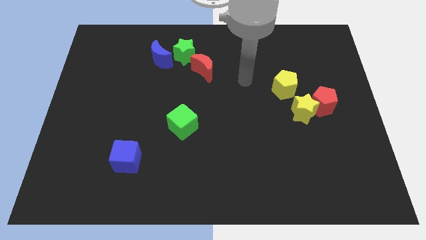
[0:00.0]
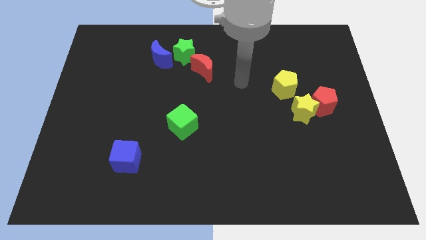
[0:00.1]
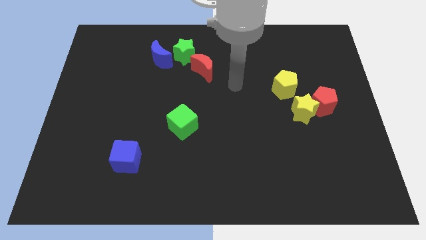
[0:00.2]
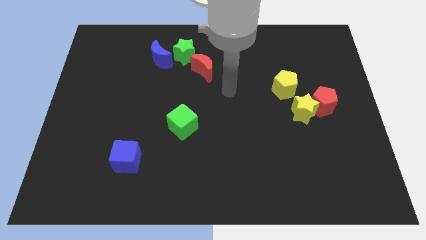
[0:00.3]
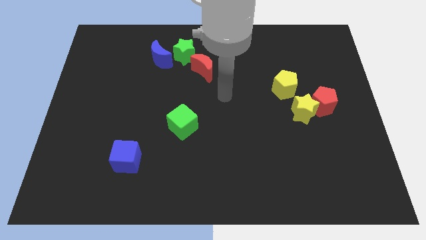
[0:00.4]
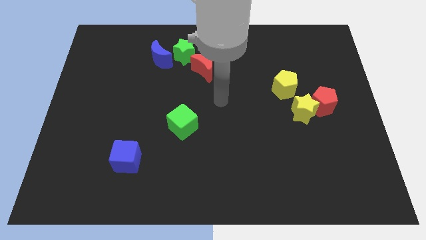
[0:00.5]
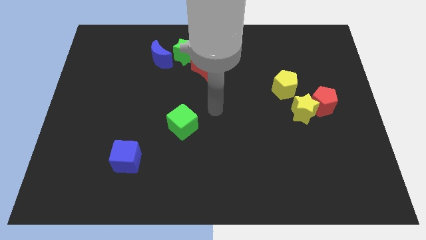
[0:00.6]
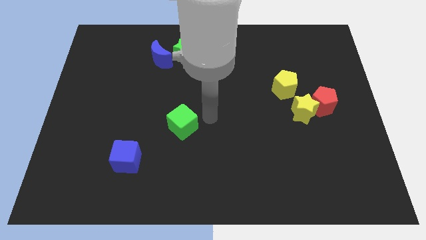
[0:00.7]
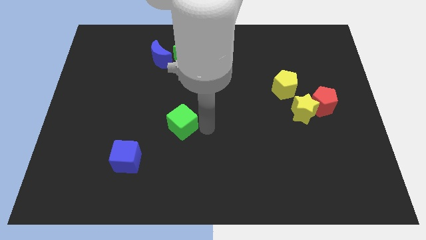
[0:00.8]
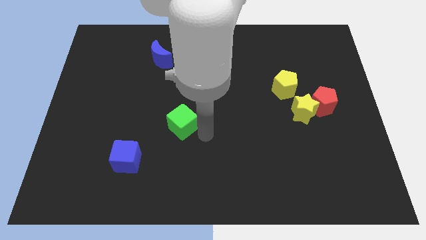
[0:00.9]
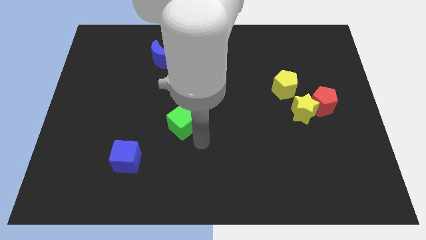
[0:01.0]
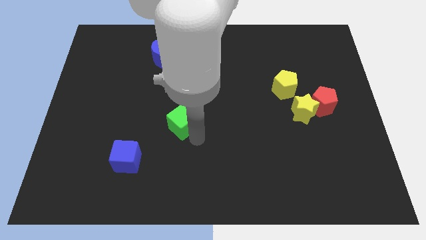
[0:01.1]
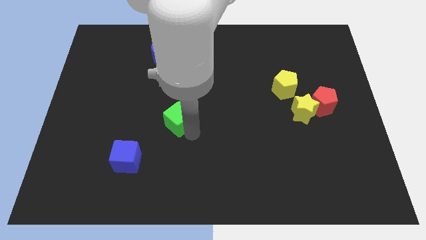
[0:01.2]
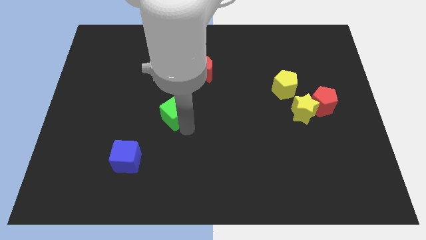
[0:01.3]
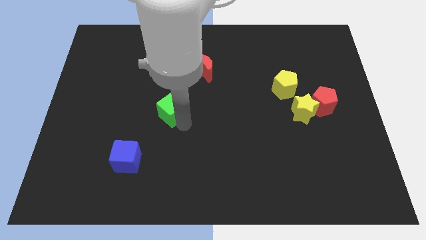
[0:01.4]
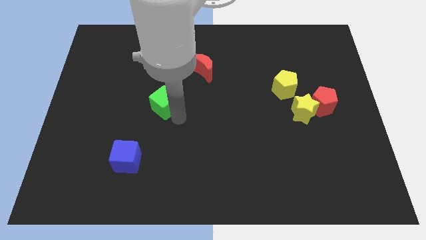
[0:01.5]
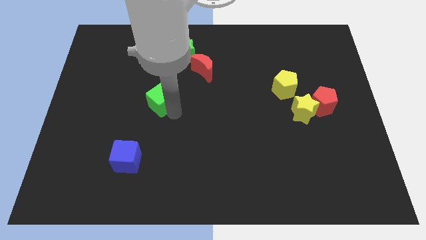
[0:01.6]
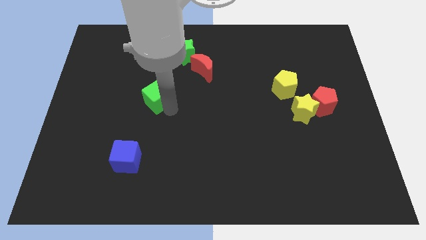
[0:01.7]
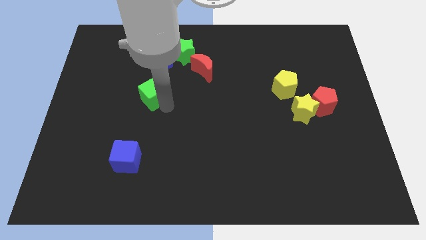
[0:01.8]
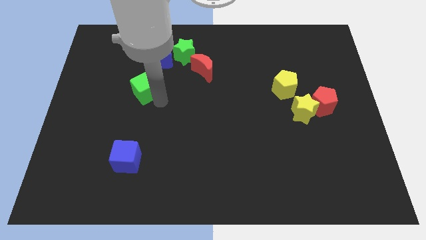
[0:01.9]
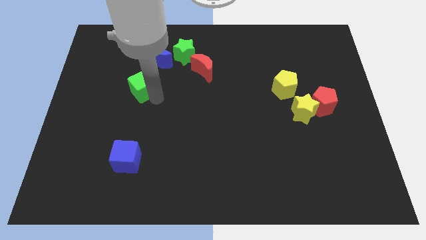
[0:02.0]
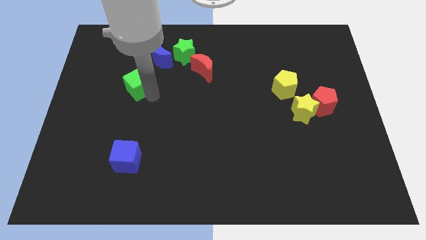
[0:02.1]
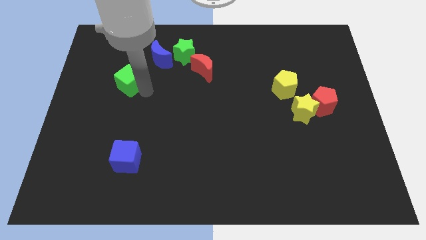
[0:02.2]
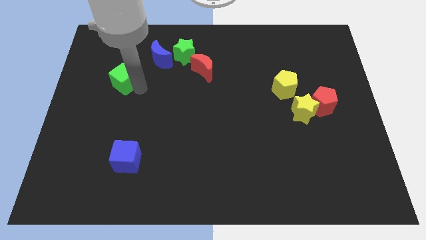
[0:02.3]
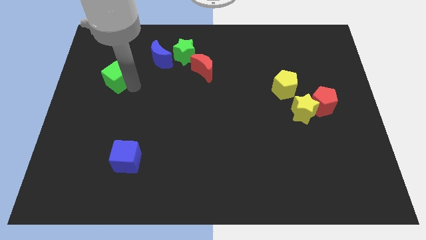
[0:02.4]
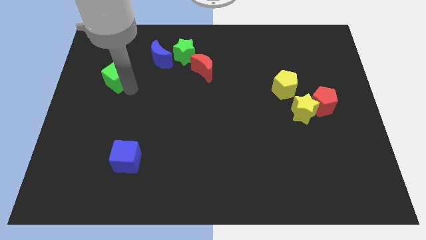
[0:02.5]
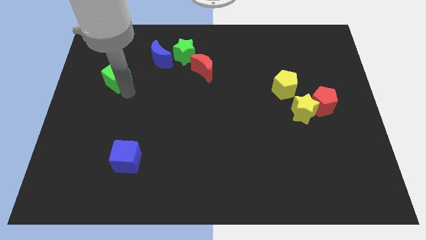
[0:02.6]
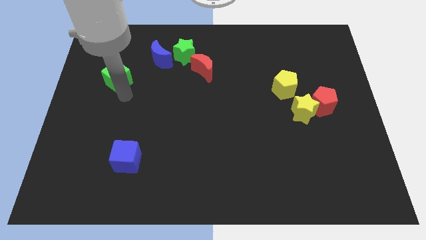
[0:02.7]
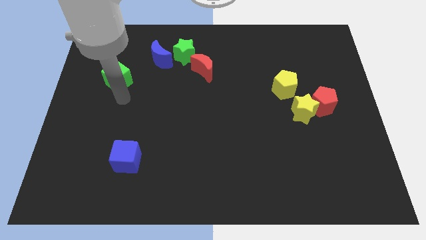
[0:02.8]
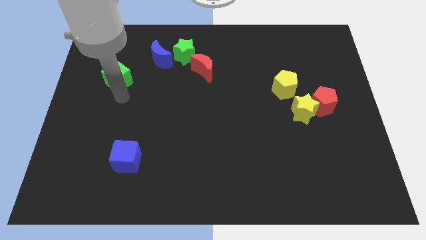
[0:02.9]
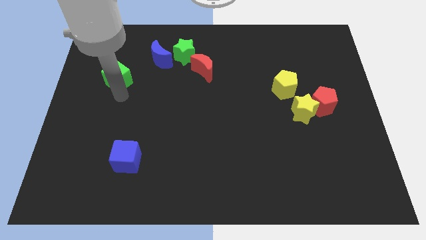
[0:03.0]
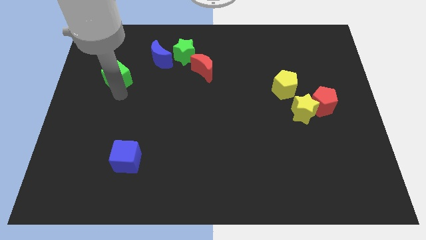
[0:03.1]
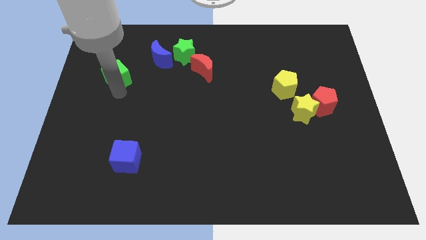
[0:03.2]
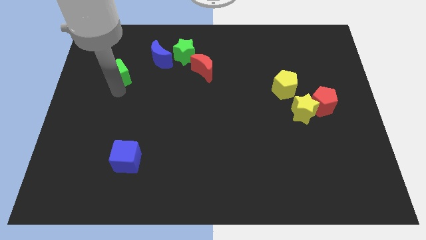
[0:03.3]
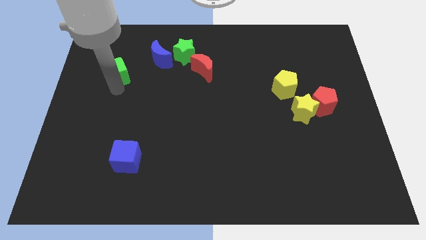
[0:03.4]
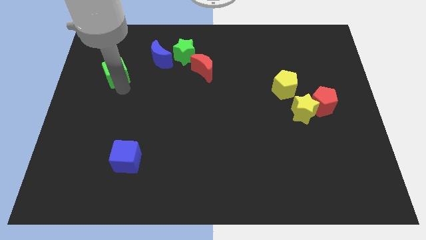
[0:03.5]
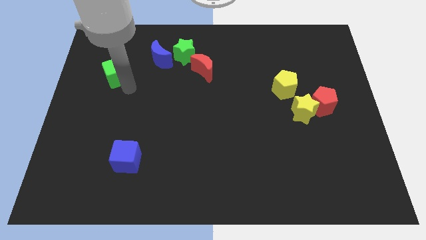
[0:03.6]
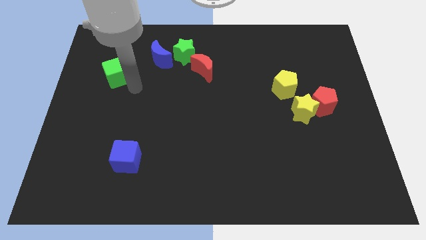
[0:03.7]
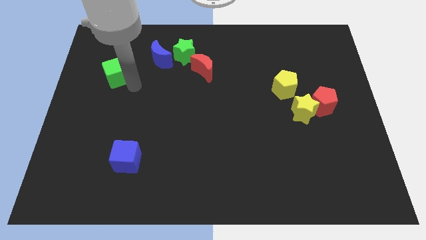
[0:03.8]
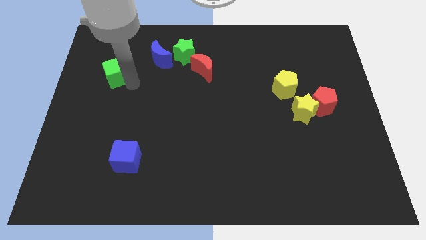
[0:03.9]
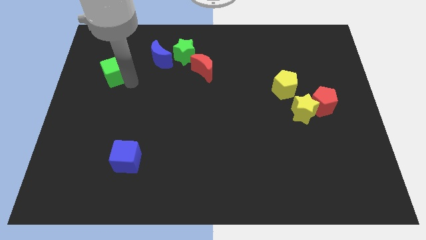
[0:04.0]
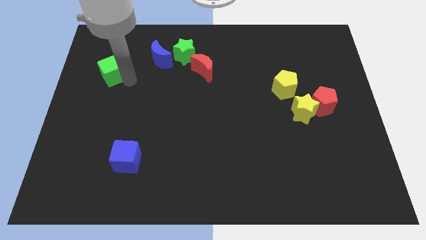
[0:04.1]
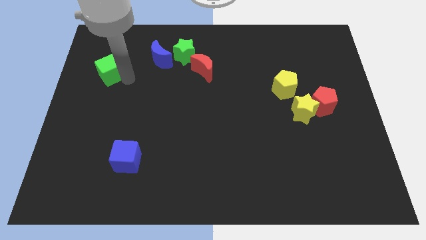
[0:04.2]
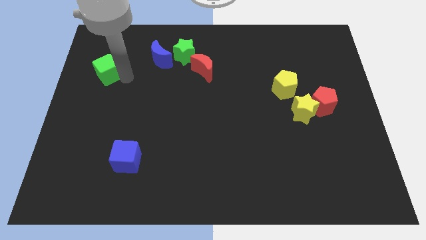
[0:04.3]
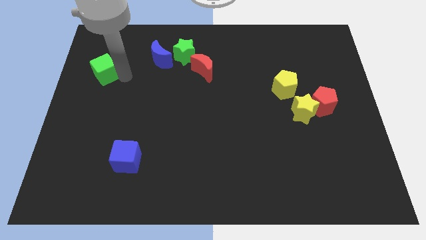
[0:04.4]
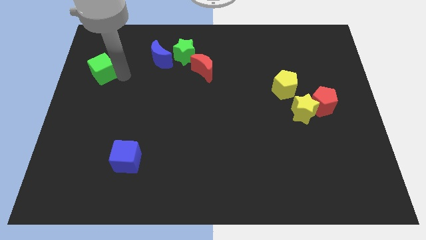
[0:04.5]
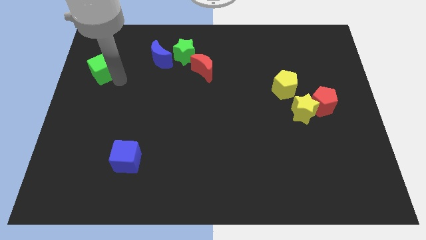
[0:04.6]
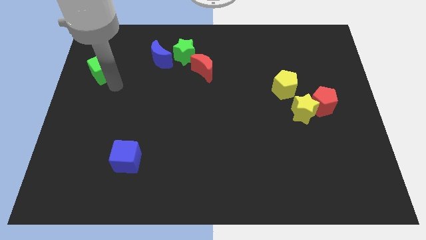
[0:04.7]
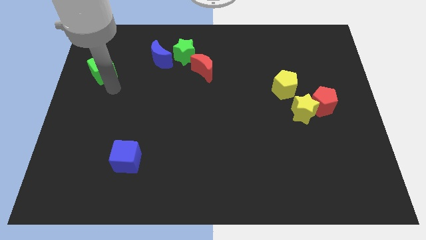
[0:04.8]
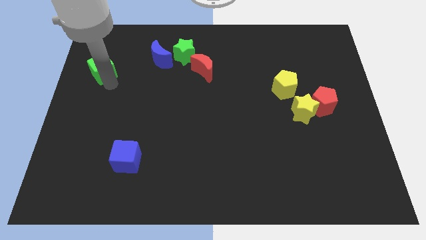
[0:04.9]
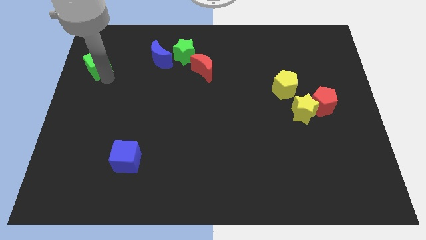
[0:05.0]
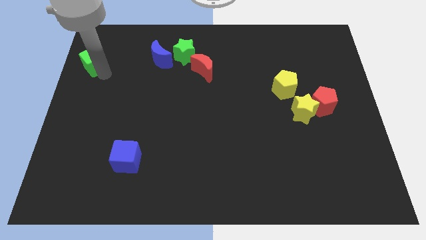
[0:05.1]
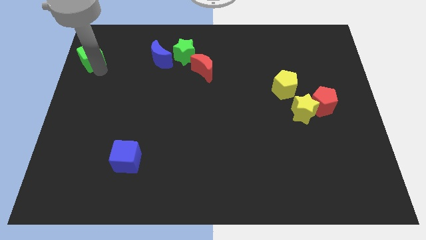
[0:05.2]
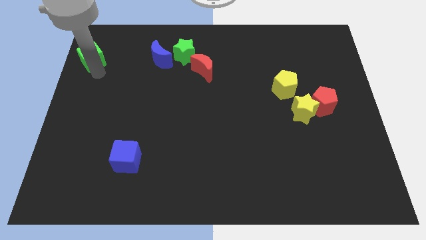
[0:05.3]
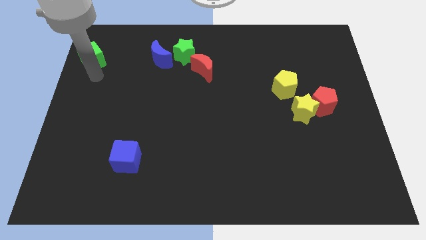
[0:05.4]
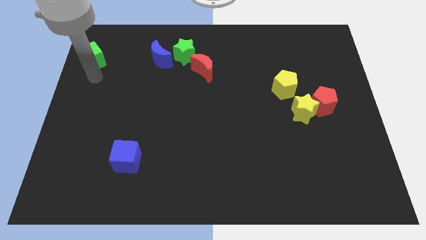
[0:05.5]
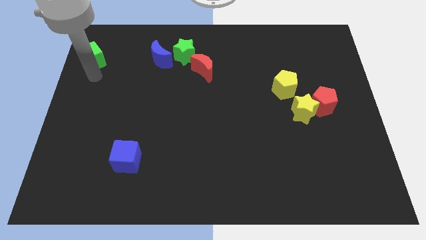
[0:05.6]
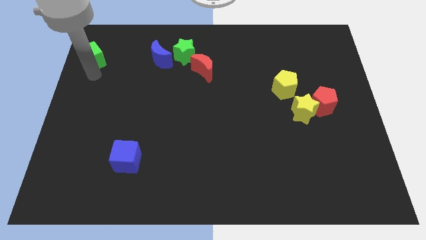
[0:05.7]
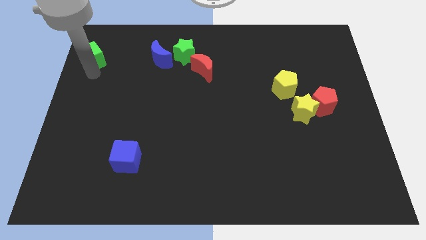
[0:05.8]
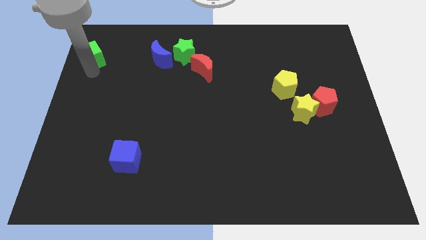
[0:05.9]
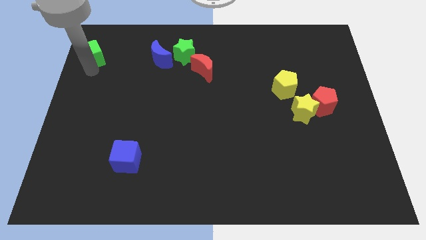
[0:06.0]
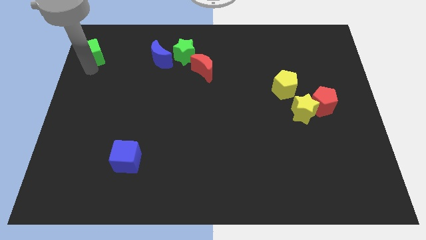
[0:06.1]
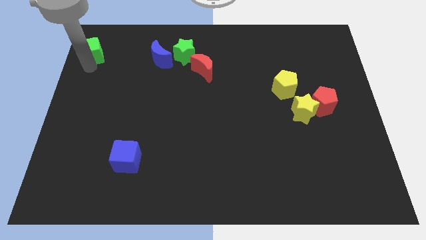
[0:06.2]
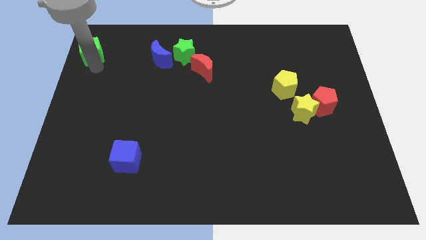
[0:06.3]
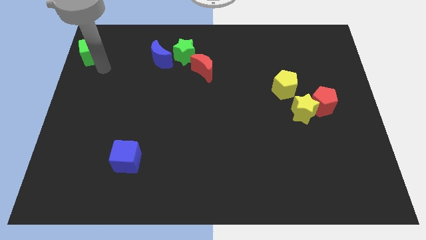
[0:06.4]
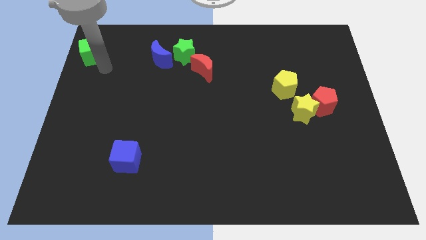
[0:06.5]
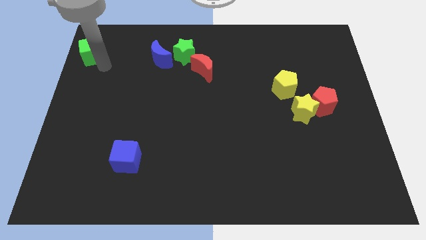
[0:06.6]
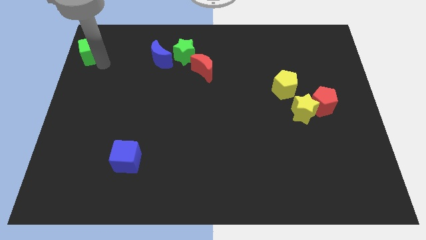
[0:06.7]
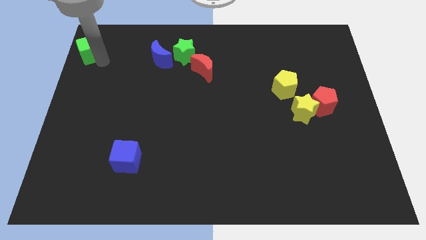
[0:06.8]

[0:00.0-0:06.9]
push the green cube to the top left
